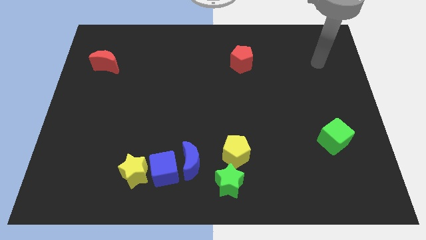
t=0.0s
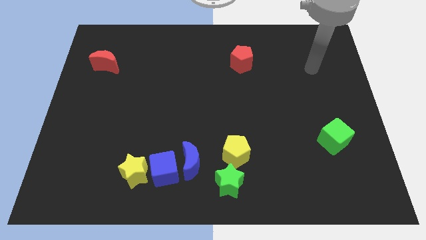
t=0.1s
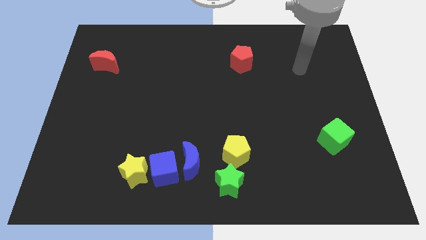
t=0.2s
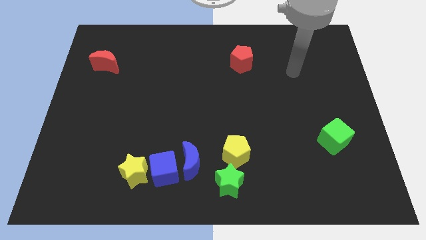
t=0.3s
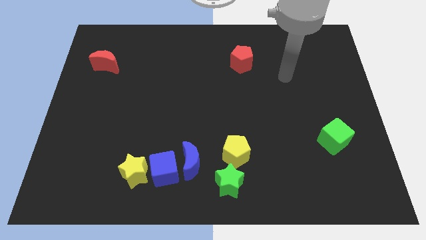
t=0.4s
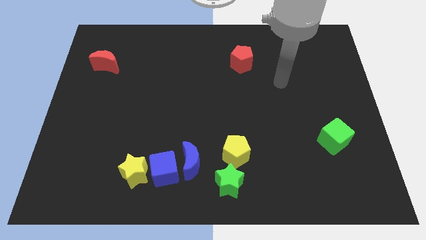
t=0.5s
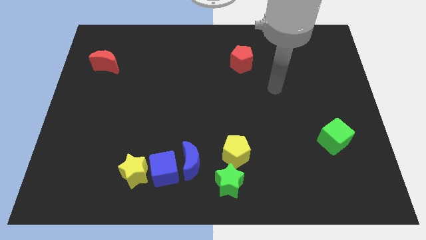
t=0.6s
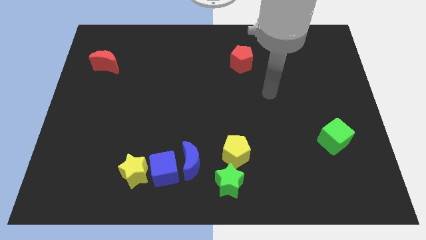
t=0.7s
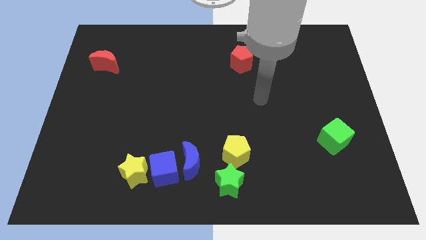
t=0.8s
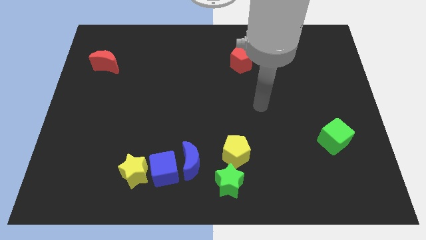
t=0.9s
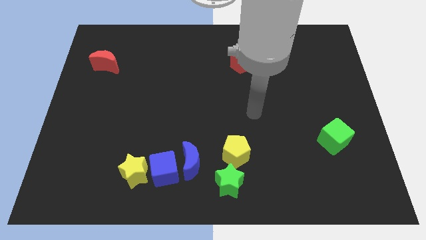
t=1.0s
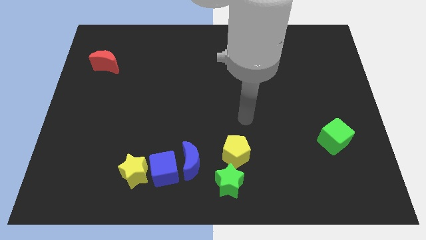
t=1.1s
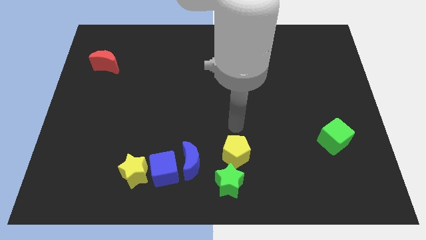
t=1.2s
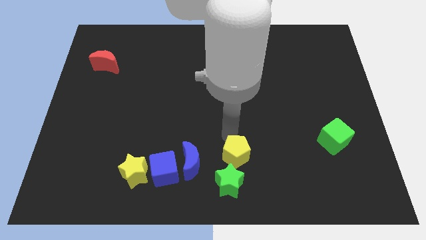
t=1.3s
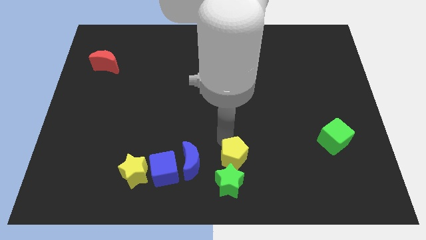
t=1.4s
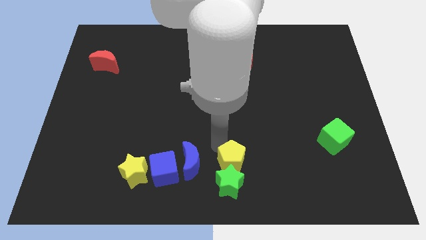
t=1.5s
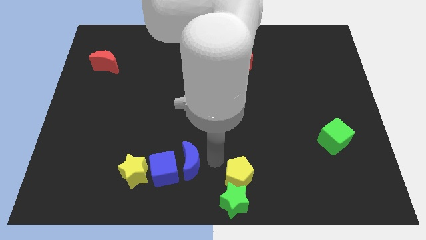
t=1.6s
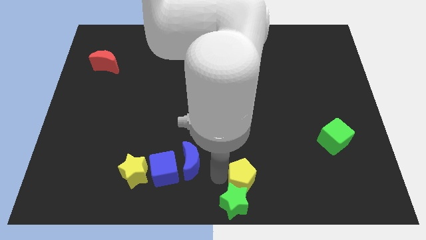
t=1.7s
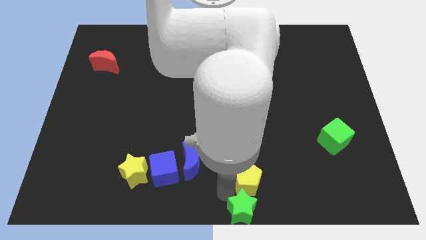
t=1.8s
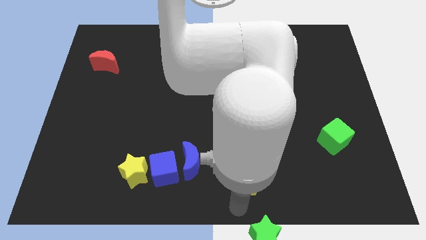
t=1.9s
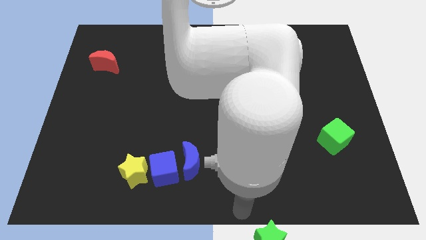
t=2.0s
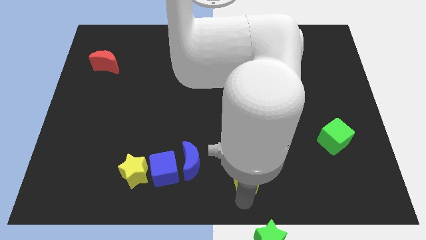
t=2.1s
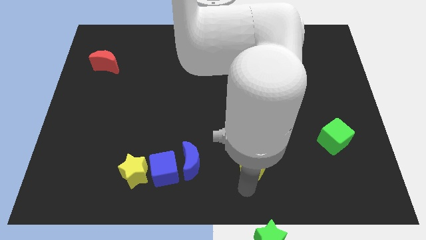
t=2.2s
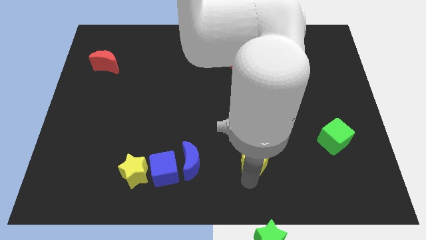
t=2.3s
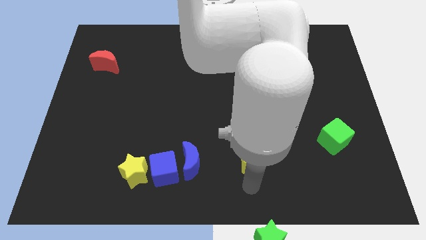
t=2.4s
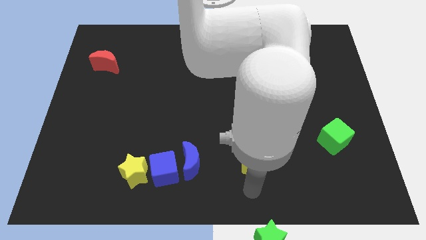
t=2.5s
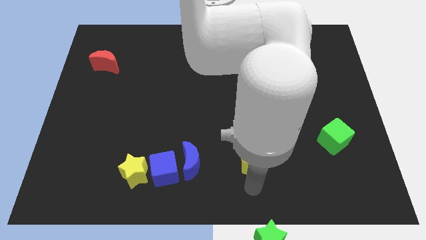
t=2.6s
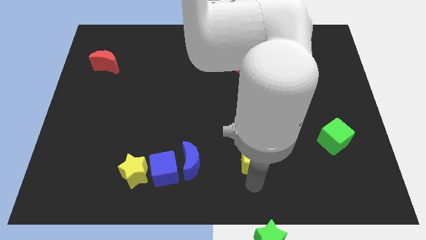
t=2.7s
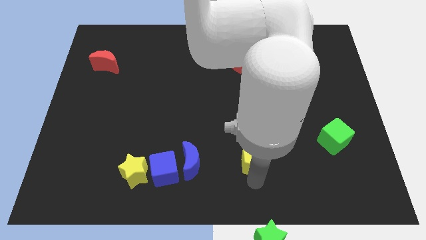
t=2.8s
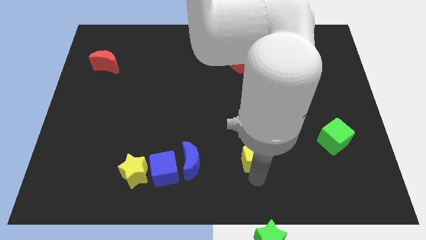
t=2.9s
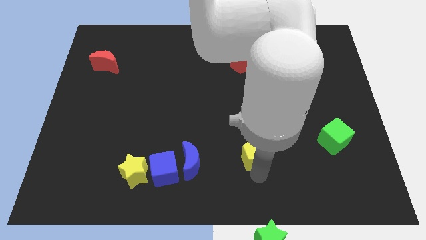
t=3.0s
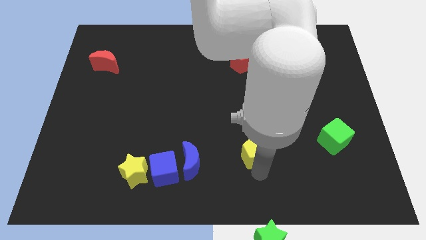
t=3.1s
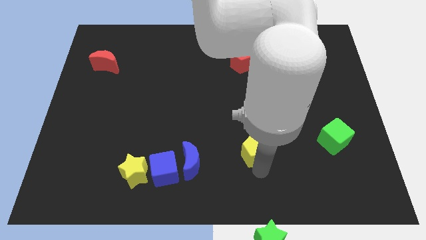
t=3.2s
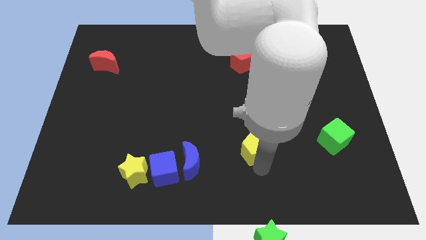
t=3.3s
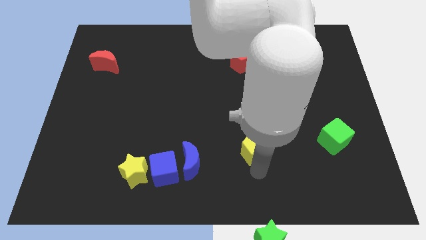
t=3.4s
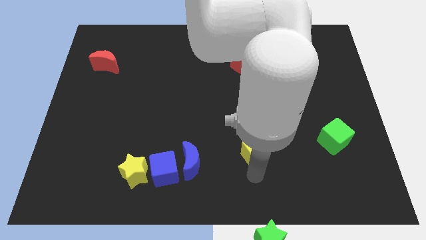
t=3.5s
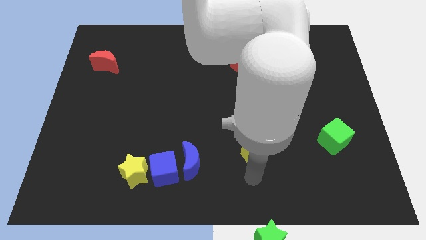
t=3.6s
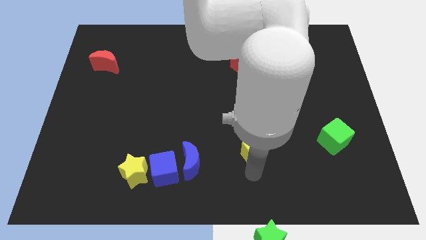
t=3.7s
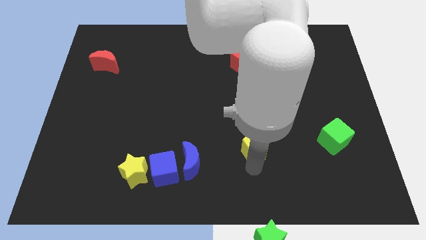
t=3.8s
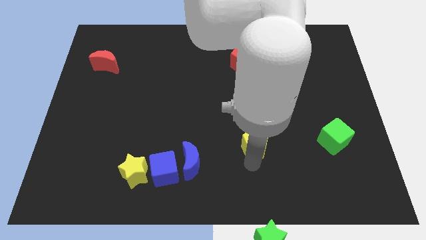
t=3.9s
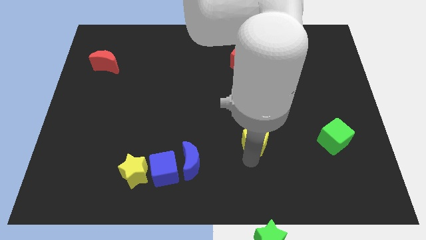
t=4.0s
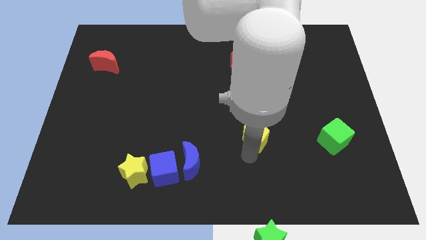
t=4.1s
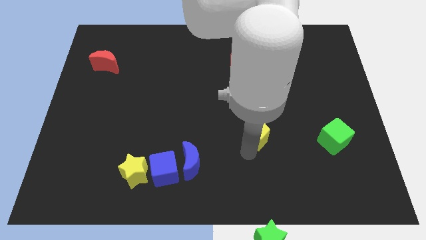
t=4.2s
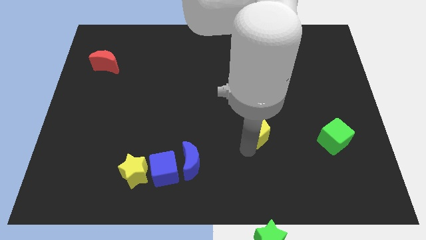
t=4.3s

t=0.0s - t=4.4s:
slightly push the yellow pentagon diagonally upwards and right

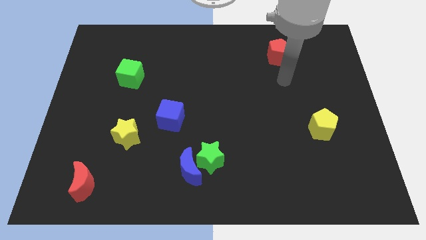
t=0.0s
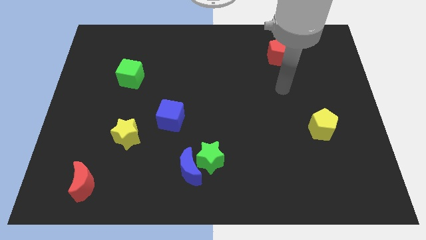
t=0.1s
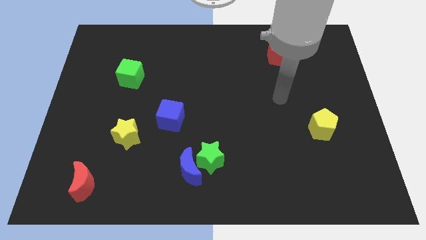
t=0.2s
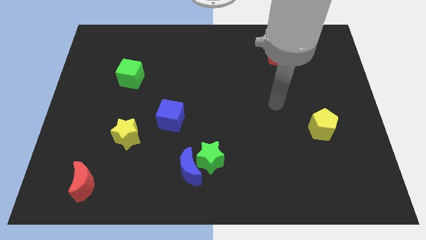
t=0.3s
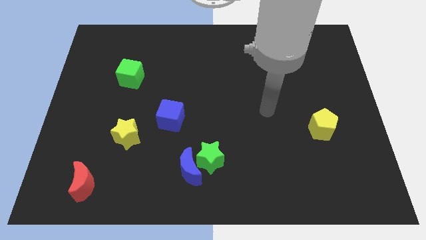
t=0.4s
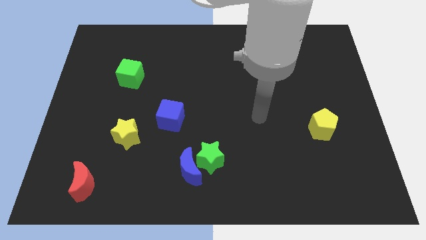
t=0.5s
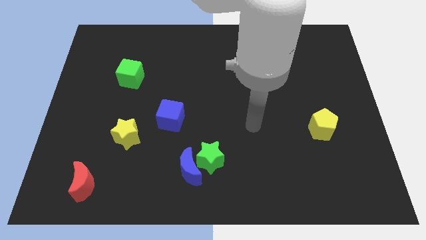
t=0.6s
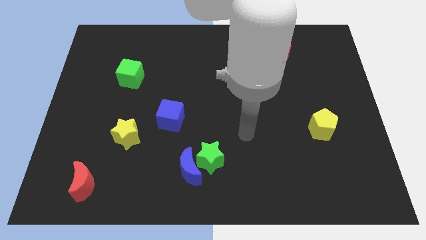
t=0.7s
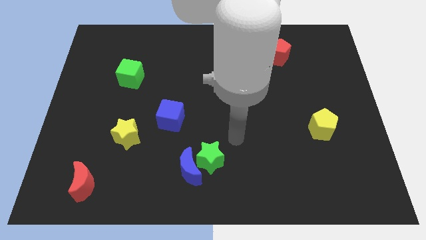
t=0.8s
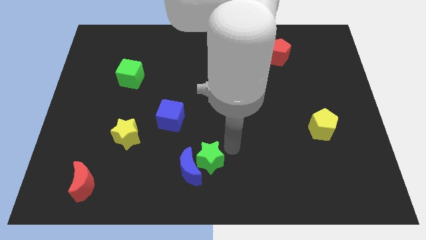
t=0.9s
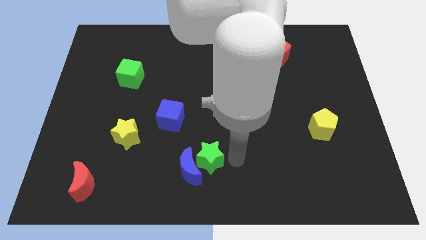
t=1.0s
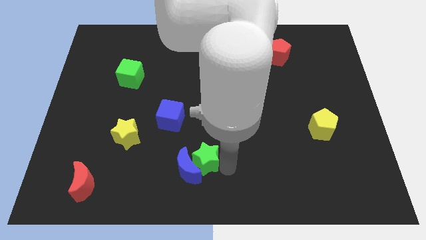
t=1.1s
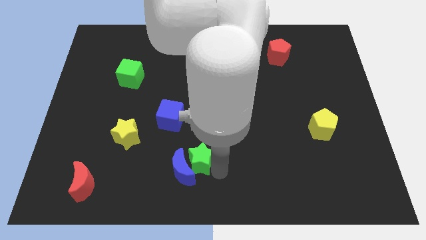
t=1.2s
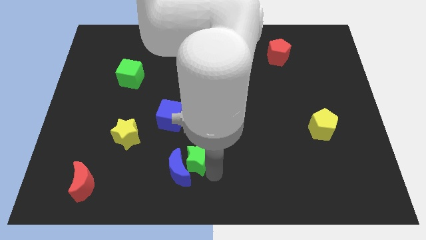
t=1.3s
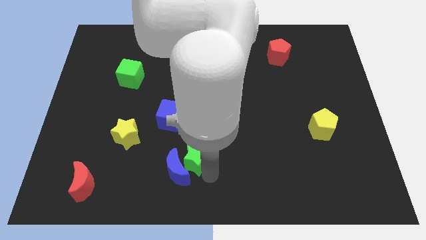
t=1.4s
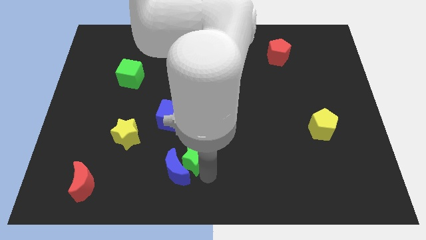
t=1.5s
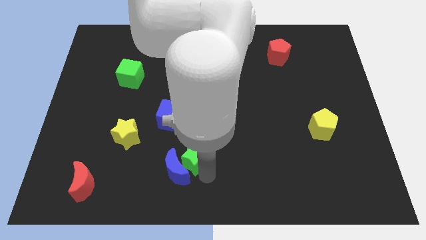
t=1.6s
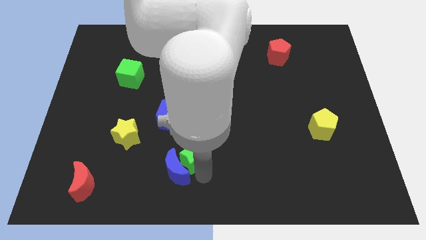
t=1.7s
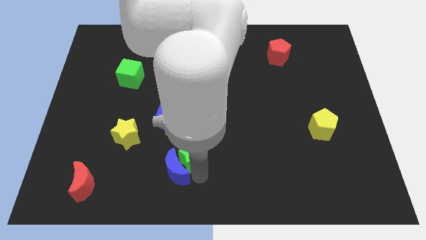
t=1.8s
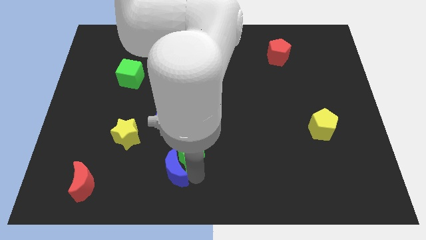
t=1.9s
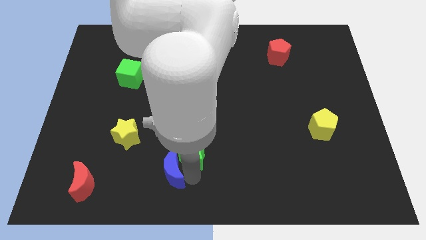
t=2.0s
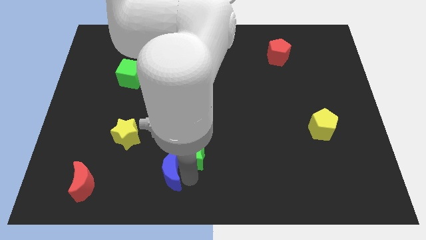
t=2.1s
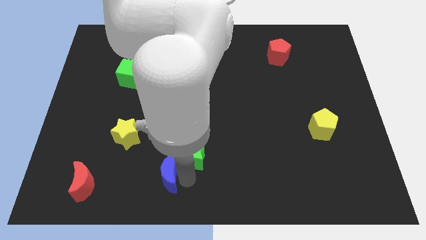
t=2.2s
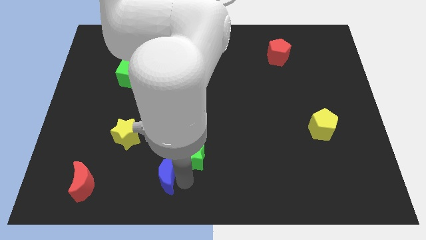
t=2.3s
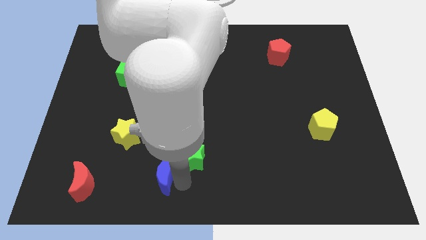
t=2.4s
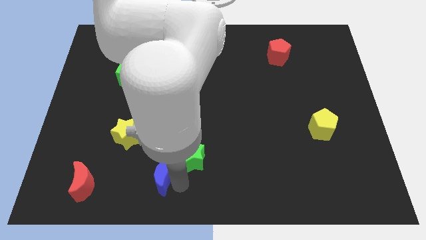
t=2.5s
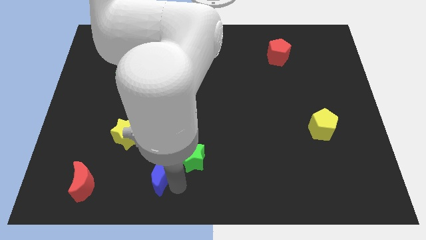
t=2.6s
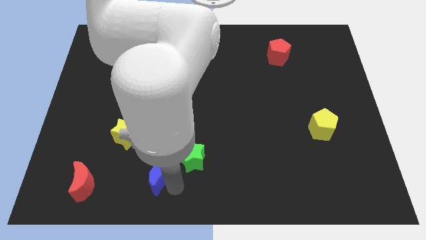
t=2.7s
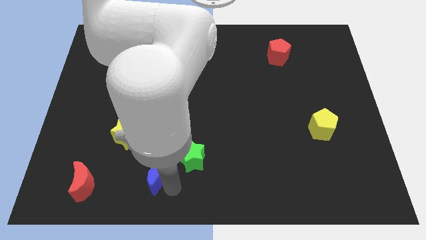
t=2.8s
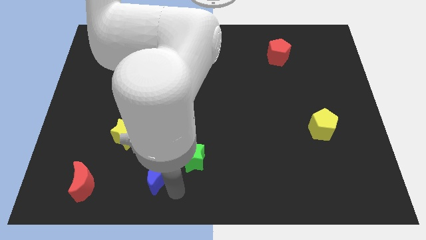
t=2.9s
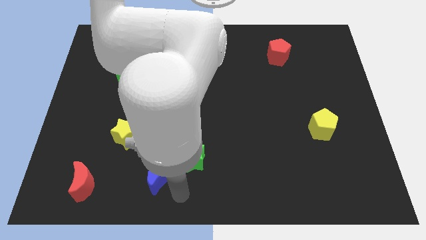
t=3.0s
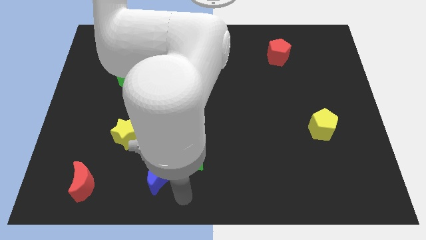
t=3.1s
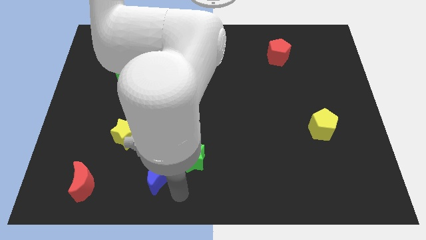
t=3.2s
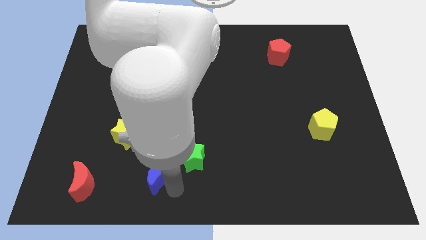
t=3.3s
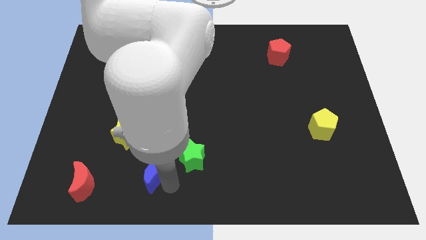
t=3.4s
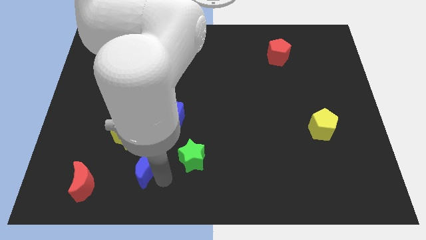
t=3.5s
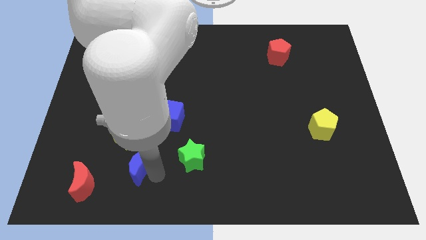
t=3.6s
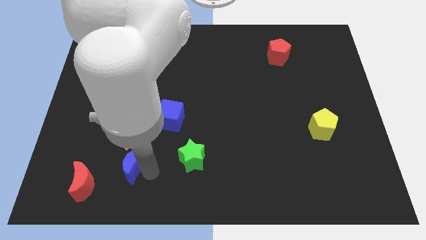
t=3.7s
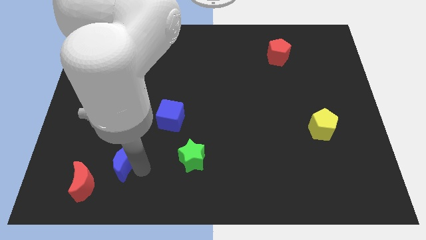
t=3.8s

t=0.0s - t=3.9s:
slide the blue moon upwards and to the left diagonally a little
